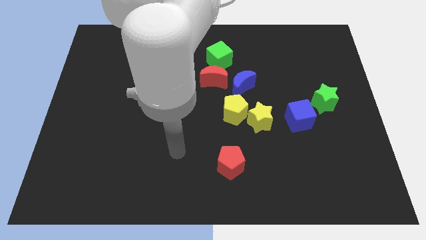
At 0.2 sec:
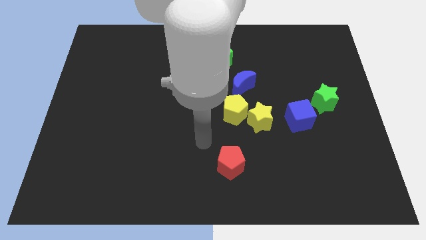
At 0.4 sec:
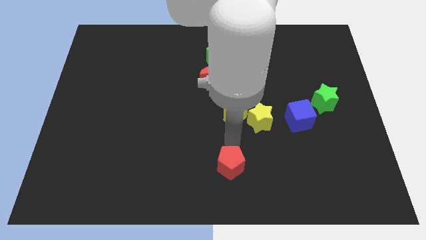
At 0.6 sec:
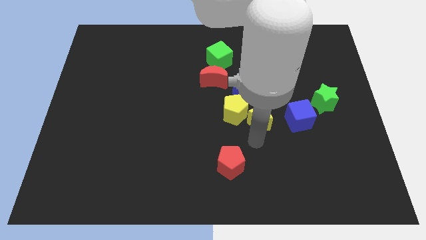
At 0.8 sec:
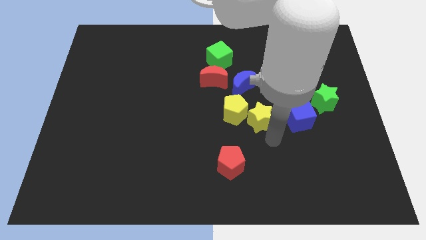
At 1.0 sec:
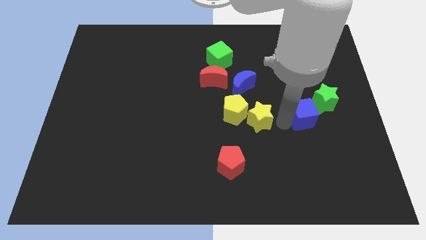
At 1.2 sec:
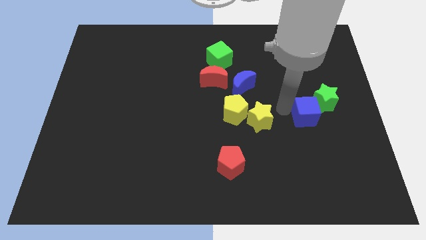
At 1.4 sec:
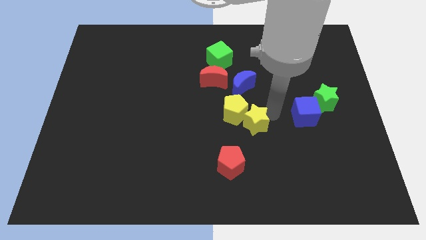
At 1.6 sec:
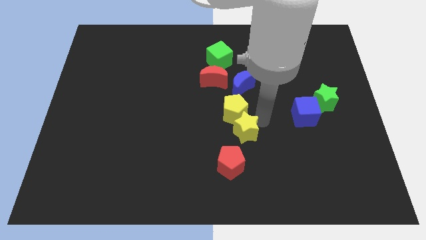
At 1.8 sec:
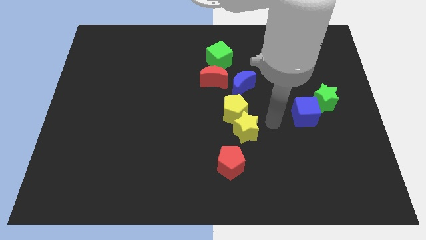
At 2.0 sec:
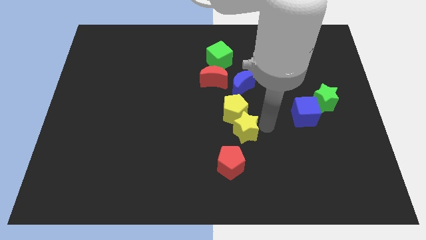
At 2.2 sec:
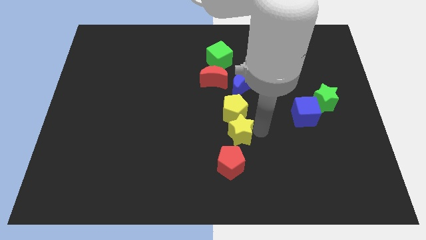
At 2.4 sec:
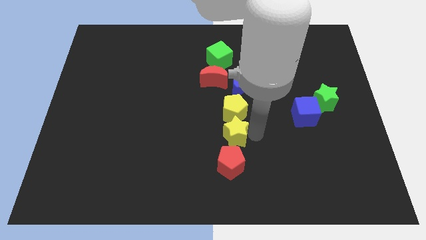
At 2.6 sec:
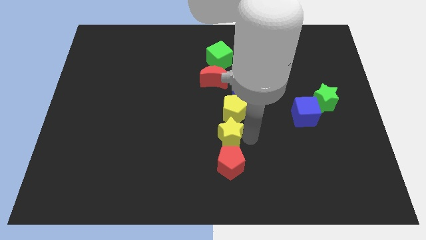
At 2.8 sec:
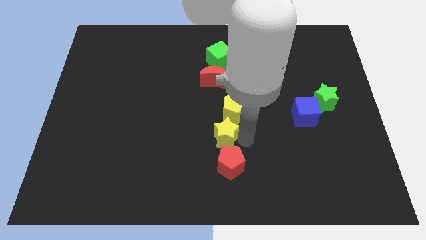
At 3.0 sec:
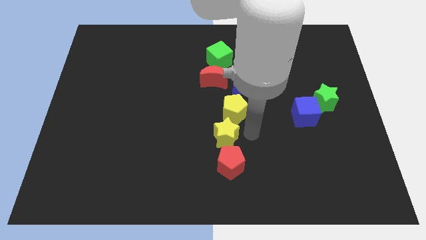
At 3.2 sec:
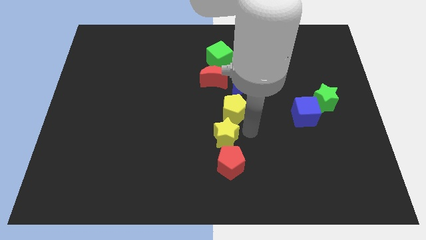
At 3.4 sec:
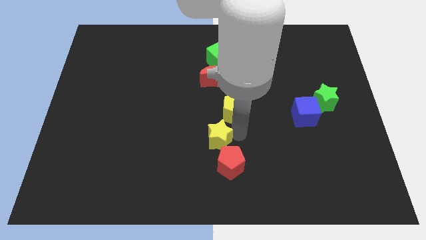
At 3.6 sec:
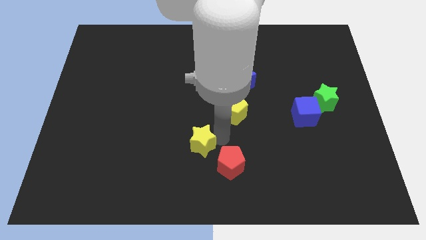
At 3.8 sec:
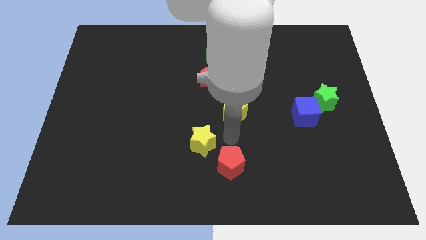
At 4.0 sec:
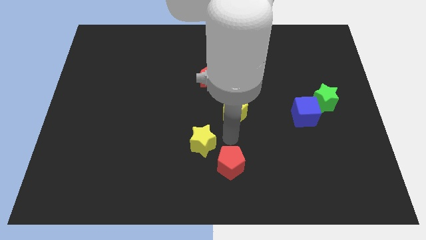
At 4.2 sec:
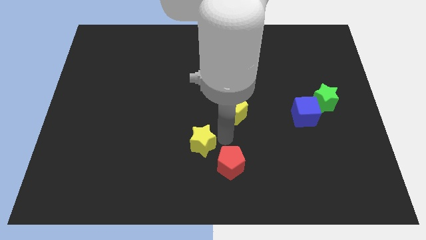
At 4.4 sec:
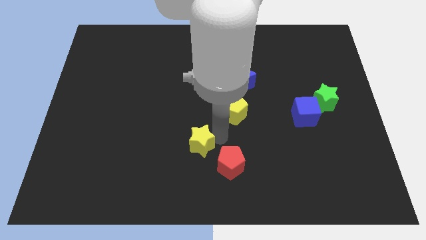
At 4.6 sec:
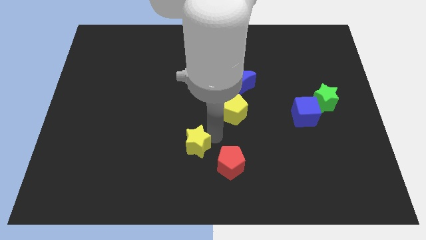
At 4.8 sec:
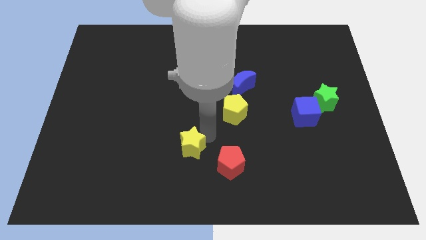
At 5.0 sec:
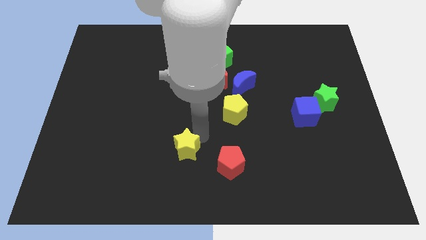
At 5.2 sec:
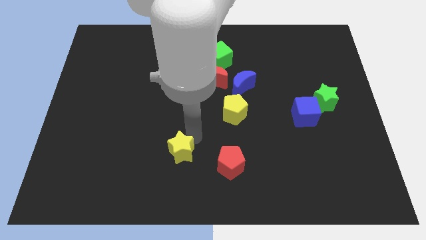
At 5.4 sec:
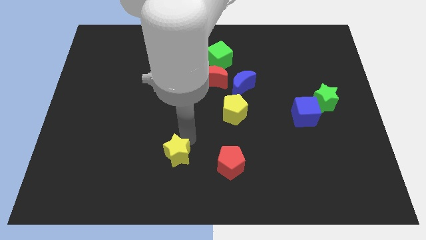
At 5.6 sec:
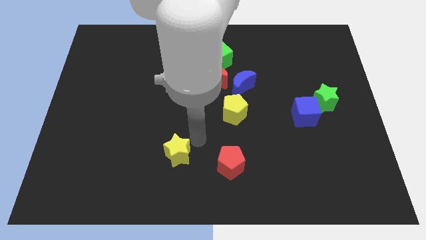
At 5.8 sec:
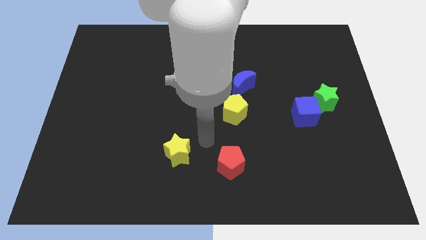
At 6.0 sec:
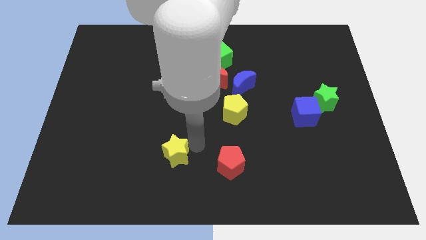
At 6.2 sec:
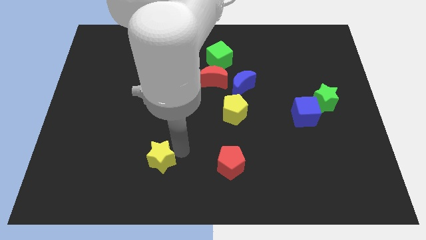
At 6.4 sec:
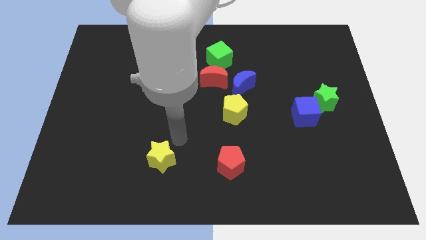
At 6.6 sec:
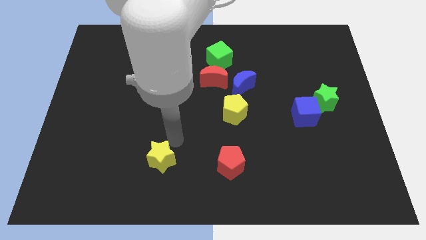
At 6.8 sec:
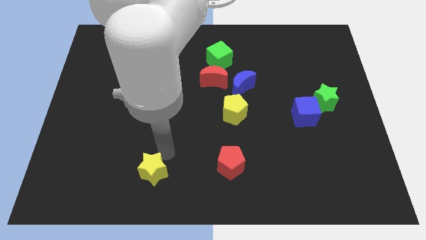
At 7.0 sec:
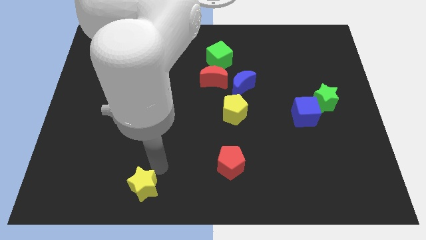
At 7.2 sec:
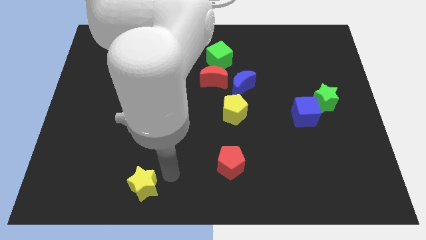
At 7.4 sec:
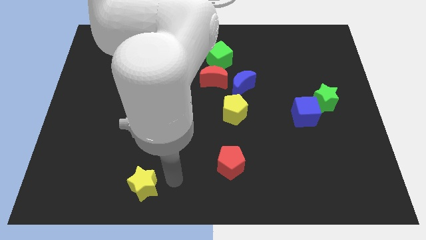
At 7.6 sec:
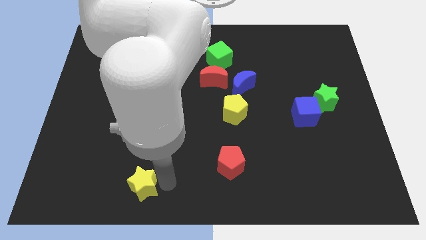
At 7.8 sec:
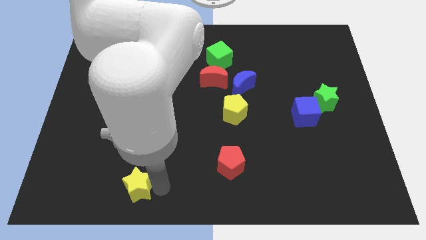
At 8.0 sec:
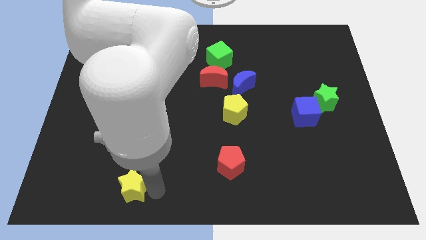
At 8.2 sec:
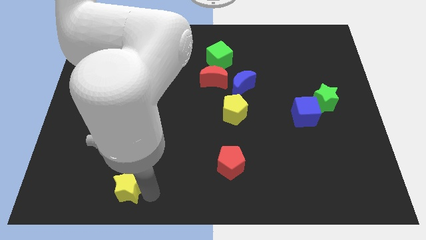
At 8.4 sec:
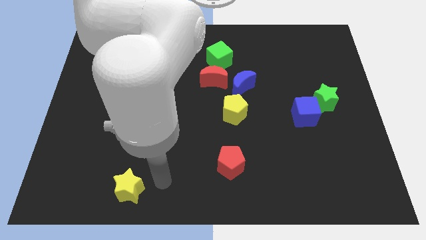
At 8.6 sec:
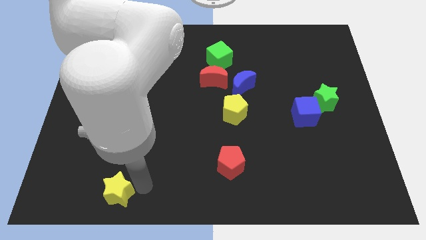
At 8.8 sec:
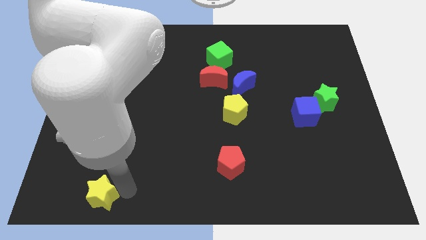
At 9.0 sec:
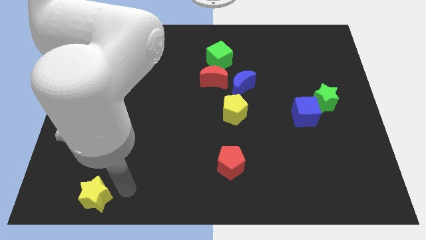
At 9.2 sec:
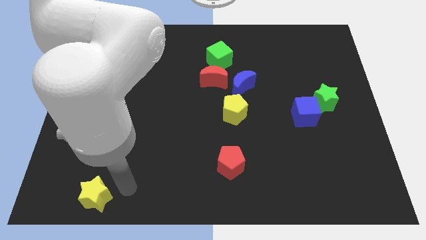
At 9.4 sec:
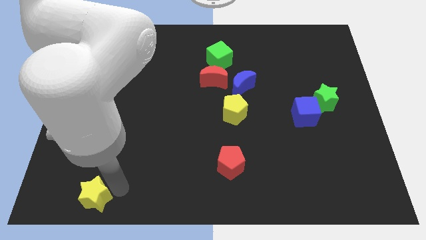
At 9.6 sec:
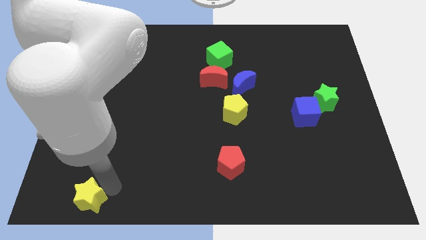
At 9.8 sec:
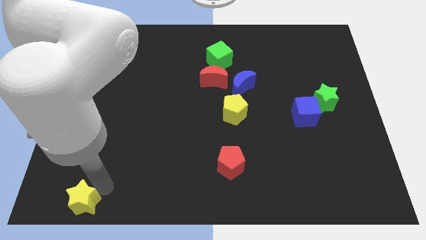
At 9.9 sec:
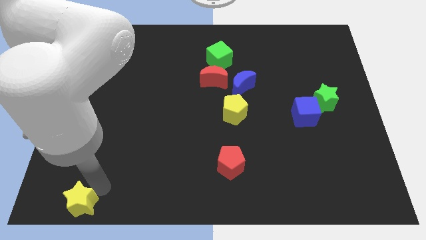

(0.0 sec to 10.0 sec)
put the yellow star to the bottom left corner

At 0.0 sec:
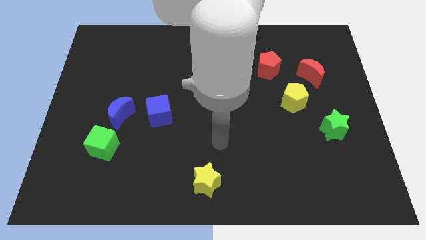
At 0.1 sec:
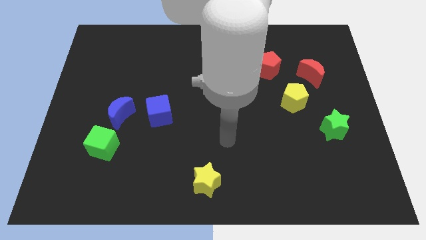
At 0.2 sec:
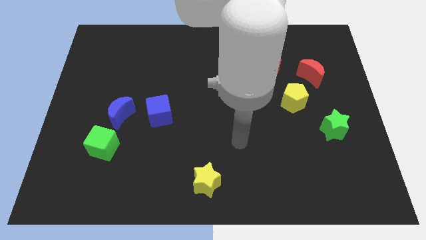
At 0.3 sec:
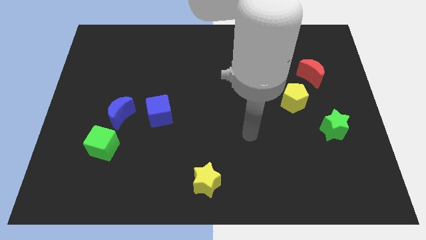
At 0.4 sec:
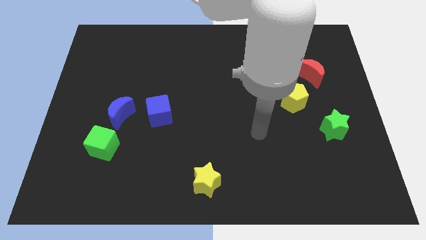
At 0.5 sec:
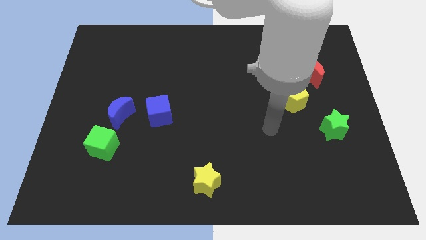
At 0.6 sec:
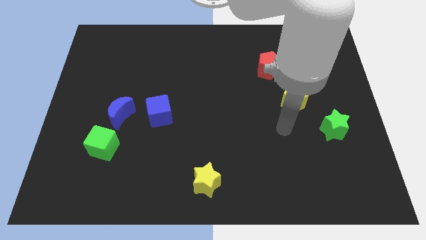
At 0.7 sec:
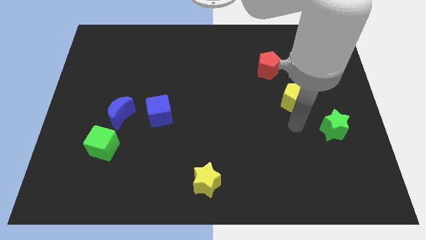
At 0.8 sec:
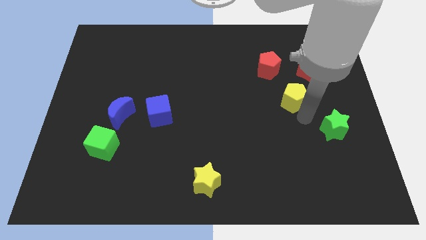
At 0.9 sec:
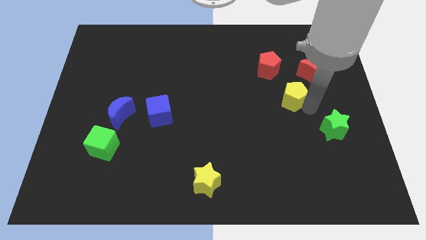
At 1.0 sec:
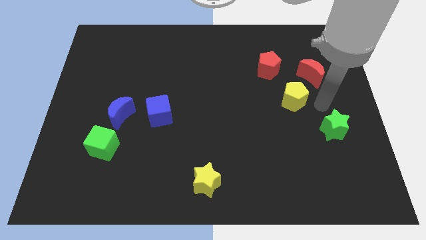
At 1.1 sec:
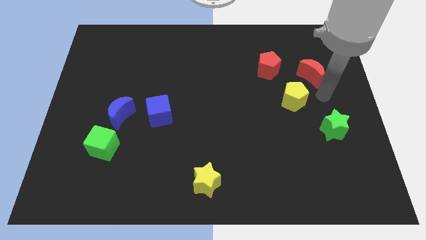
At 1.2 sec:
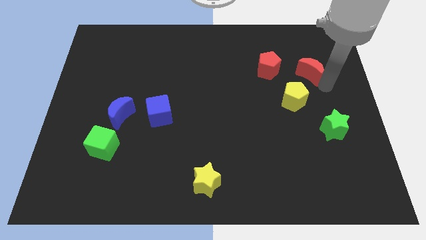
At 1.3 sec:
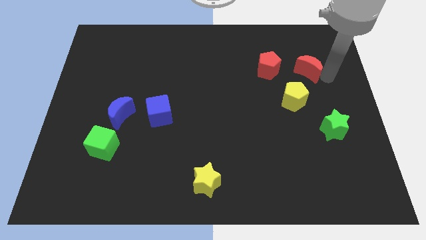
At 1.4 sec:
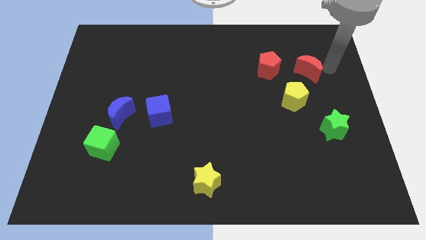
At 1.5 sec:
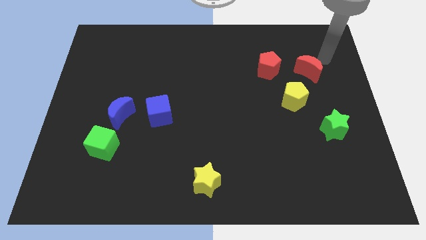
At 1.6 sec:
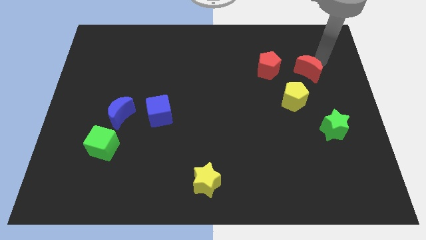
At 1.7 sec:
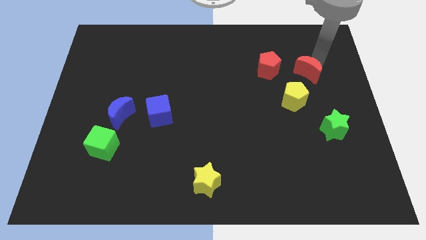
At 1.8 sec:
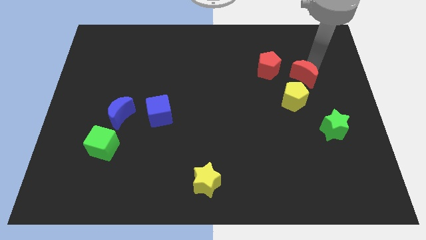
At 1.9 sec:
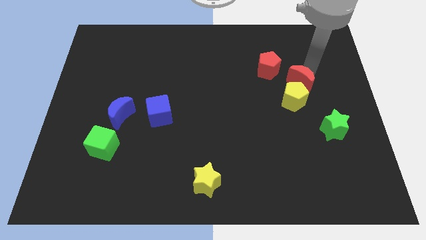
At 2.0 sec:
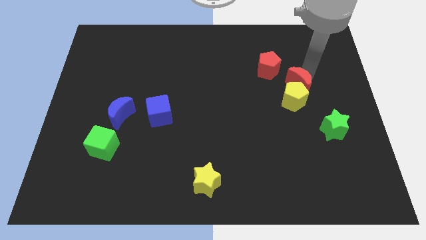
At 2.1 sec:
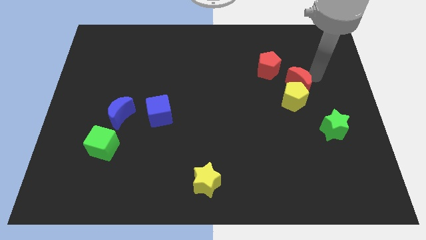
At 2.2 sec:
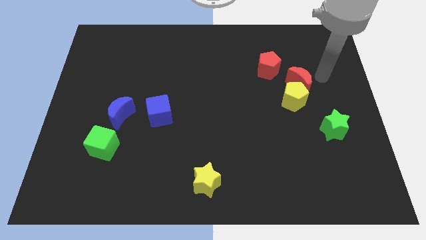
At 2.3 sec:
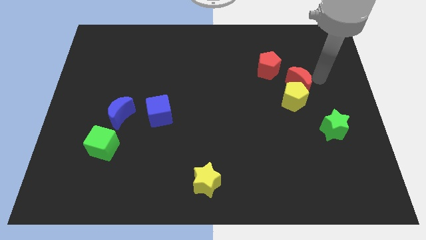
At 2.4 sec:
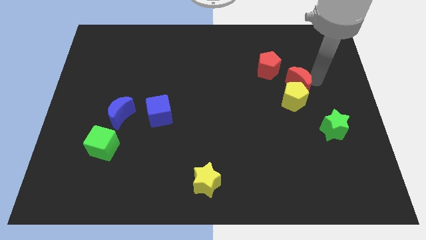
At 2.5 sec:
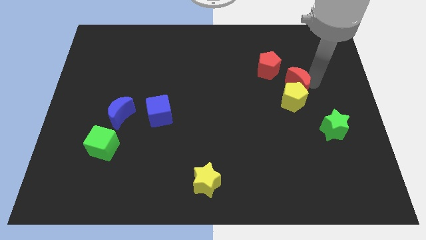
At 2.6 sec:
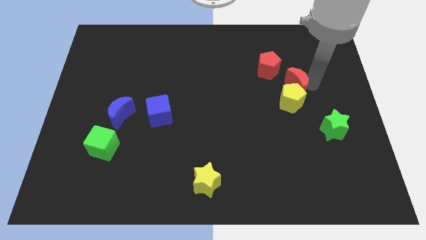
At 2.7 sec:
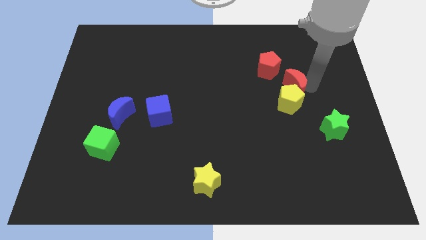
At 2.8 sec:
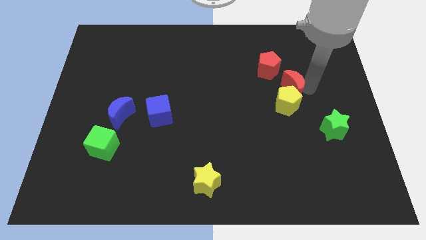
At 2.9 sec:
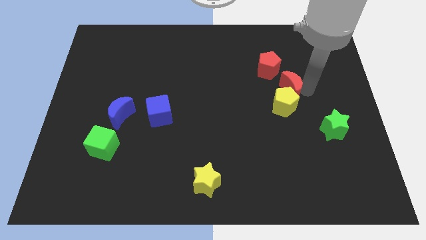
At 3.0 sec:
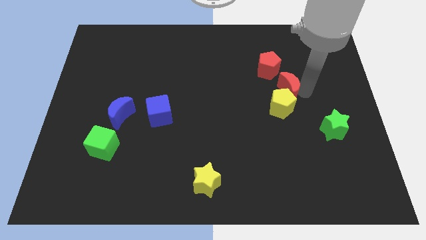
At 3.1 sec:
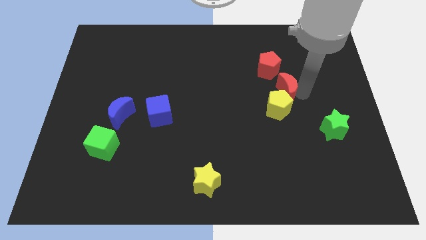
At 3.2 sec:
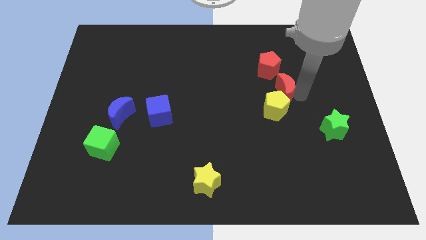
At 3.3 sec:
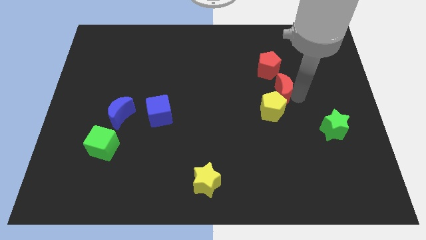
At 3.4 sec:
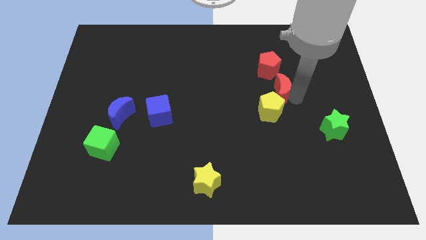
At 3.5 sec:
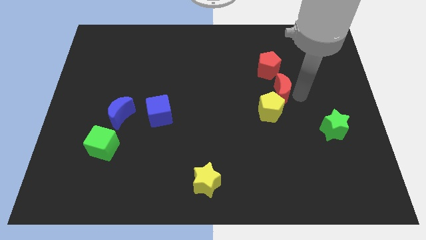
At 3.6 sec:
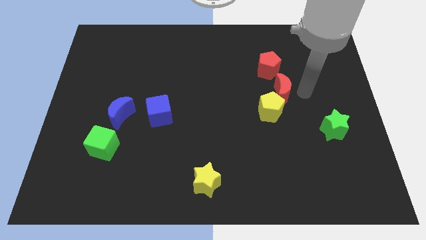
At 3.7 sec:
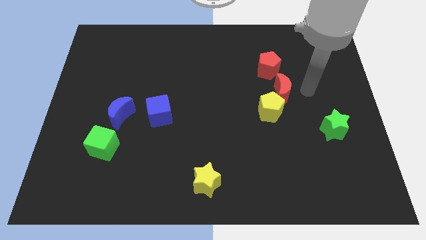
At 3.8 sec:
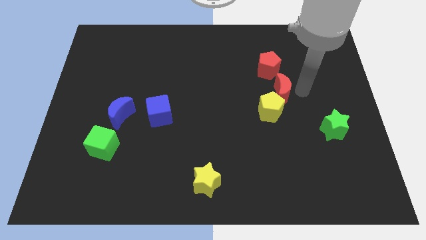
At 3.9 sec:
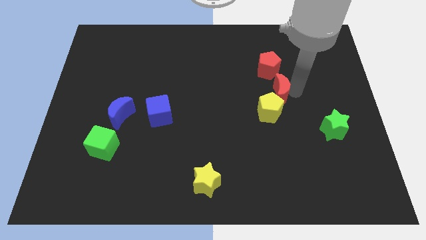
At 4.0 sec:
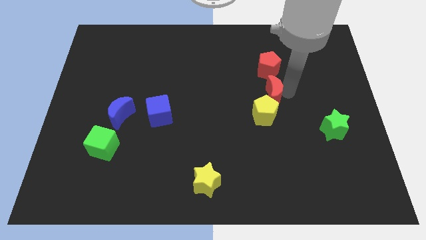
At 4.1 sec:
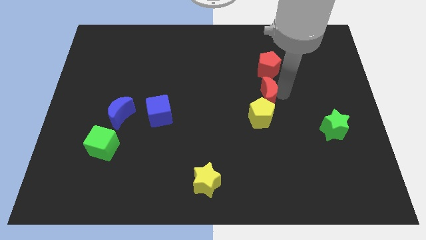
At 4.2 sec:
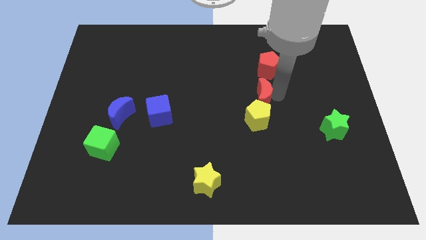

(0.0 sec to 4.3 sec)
push the red moon to the center
